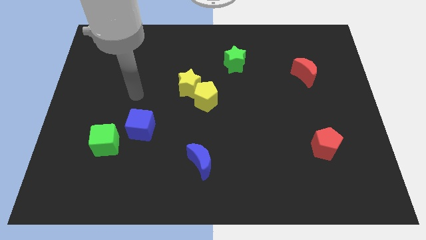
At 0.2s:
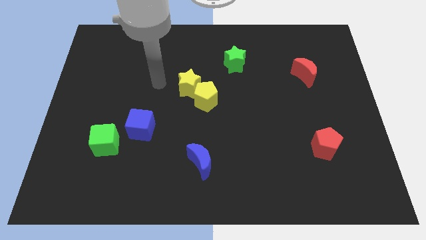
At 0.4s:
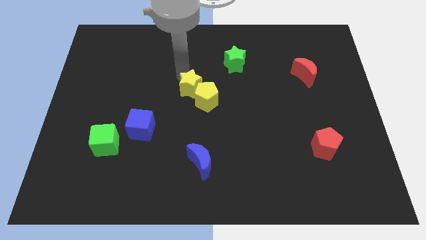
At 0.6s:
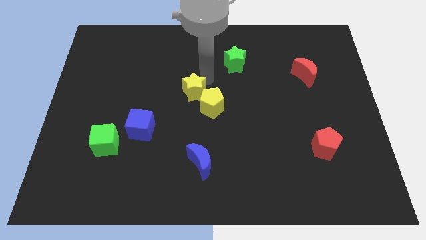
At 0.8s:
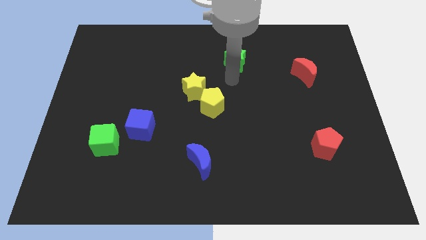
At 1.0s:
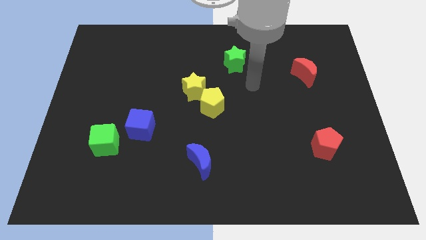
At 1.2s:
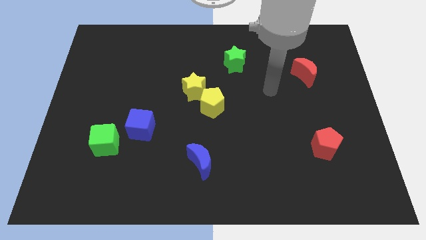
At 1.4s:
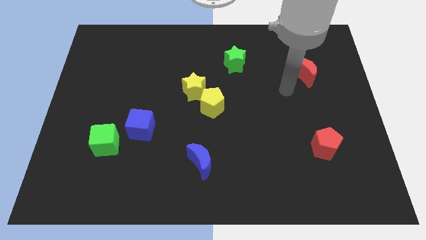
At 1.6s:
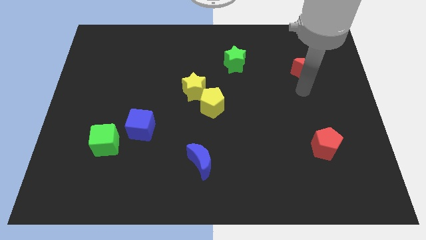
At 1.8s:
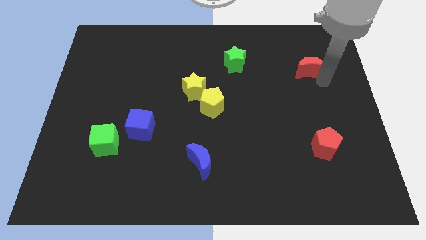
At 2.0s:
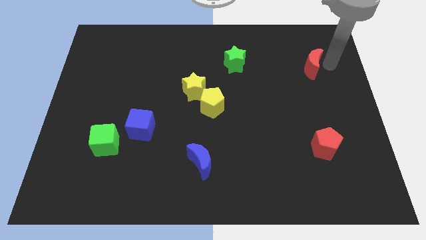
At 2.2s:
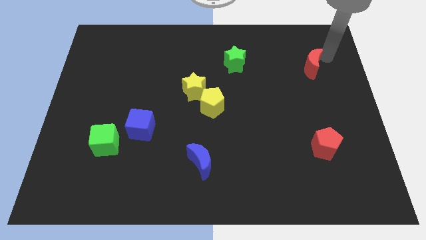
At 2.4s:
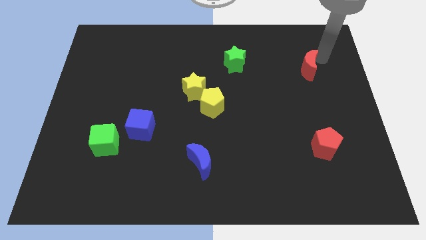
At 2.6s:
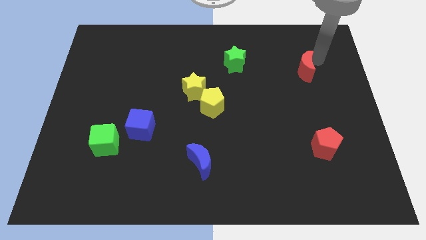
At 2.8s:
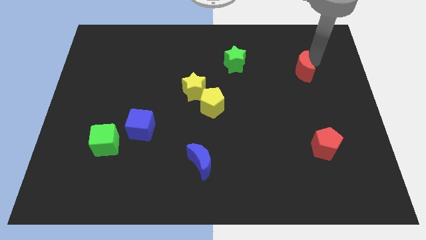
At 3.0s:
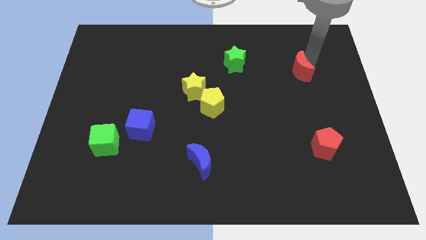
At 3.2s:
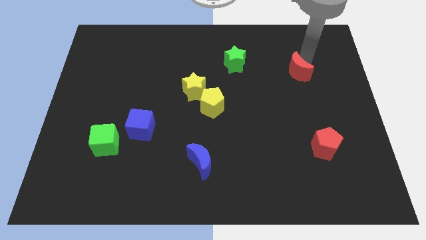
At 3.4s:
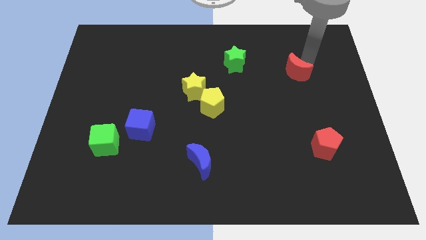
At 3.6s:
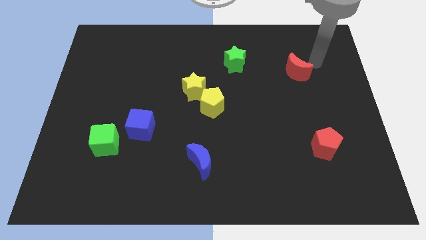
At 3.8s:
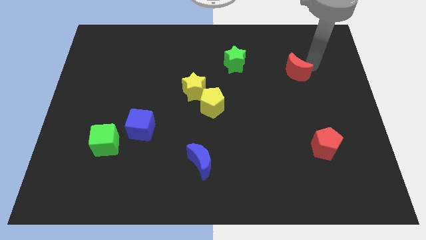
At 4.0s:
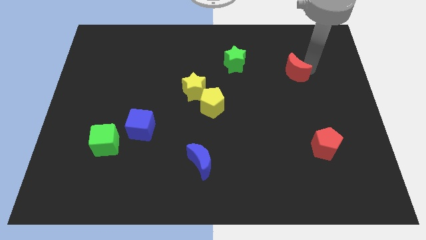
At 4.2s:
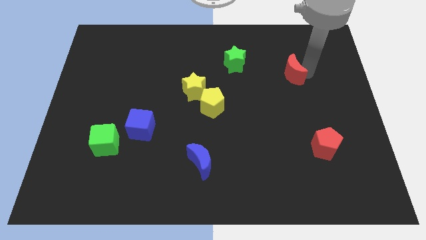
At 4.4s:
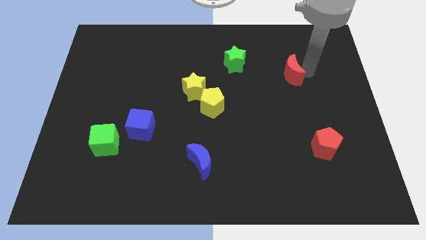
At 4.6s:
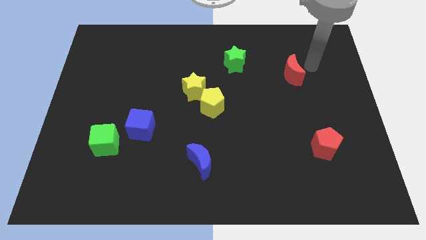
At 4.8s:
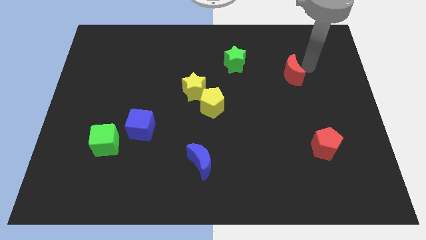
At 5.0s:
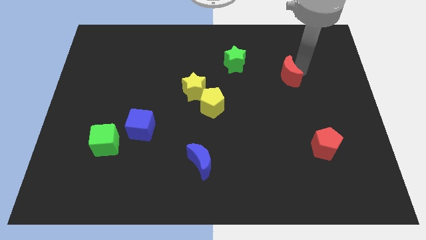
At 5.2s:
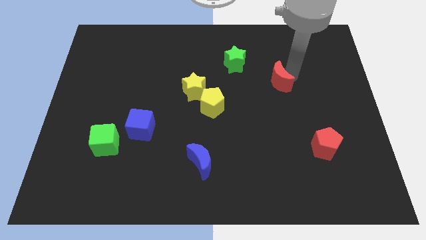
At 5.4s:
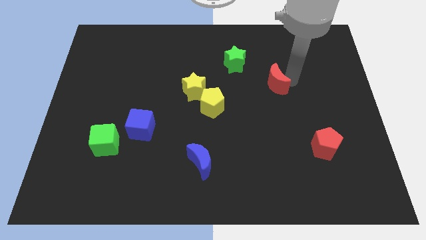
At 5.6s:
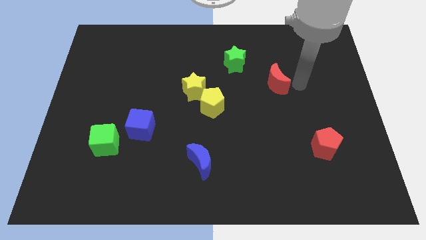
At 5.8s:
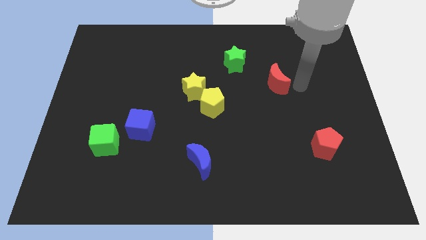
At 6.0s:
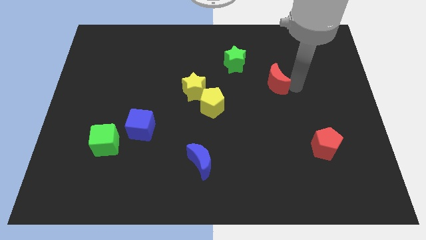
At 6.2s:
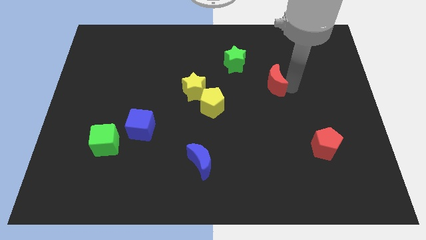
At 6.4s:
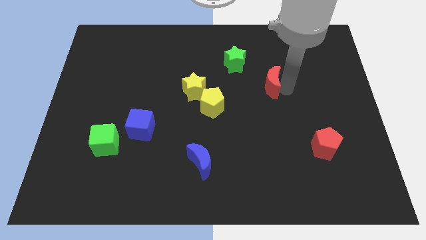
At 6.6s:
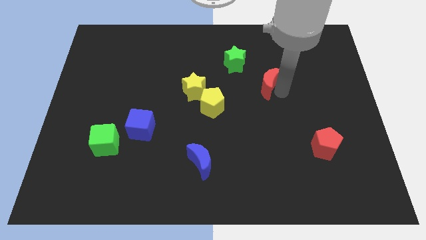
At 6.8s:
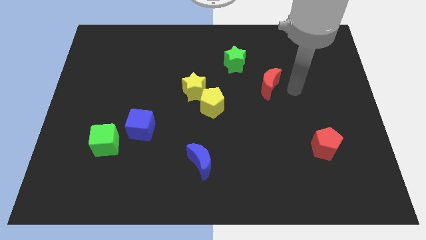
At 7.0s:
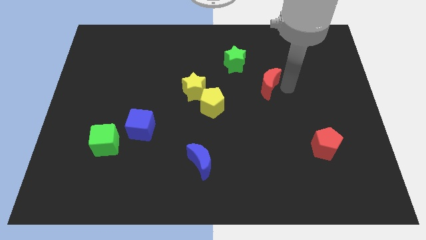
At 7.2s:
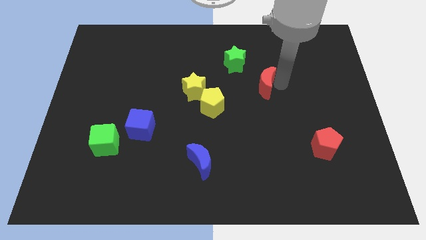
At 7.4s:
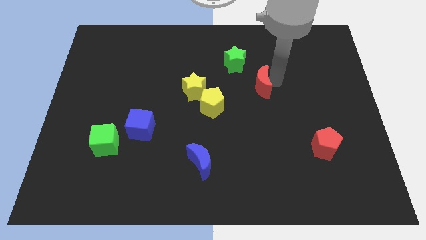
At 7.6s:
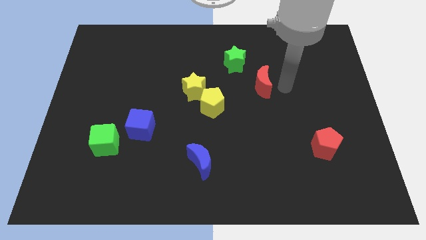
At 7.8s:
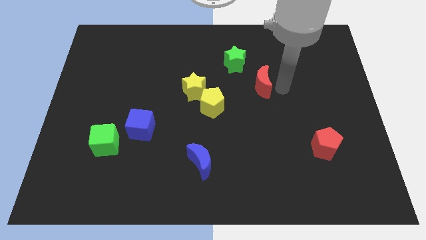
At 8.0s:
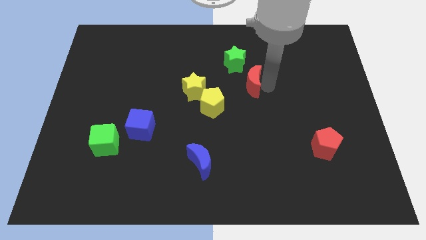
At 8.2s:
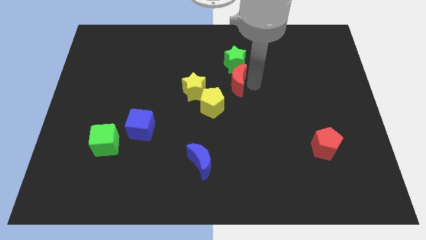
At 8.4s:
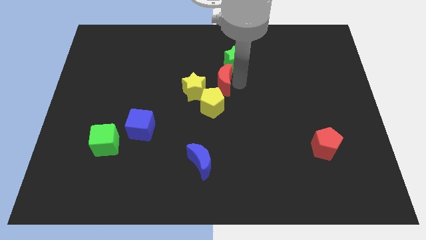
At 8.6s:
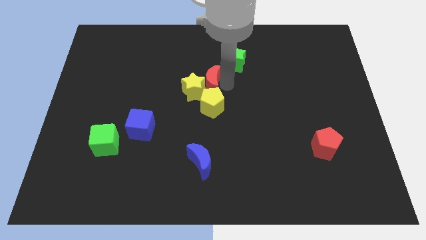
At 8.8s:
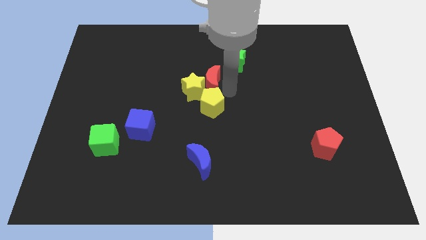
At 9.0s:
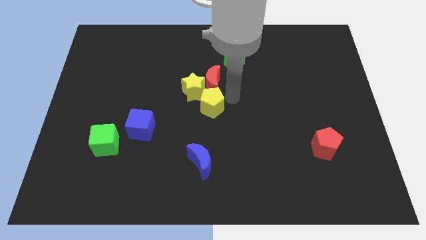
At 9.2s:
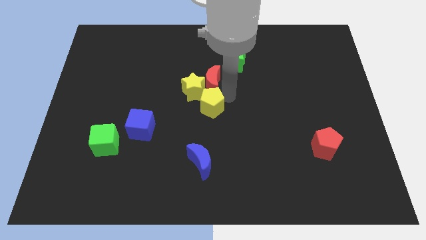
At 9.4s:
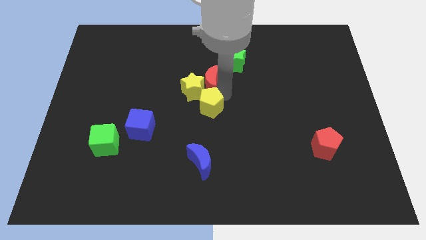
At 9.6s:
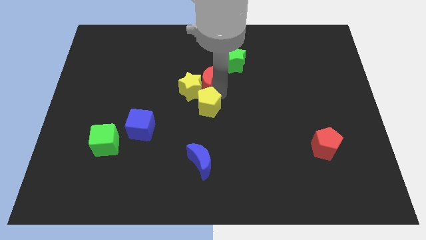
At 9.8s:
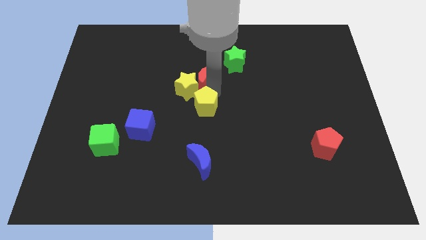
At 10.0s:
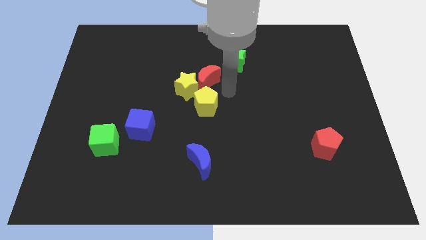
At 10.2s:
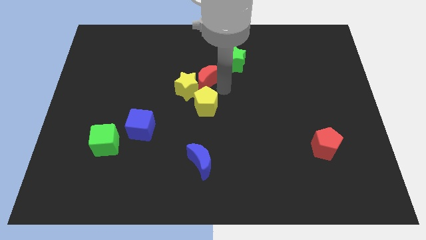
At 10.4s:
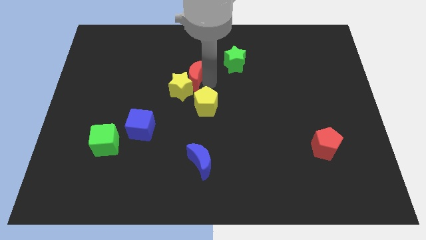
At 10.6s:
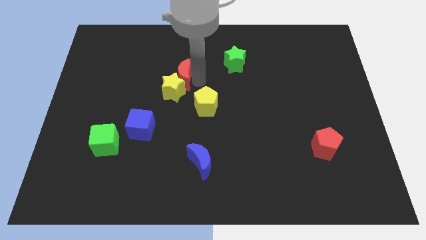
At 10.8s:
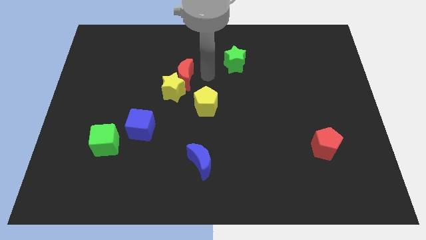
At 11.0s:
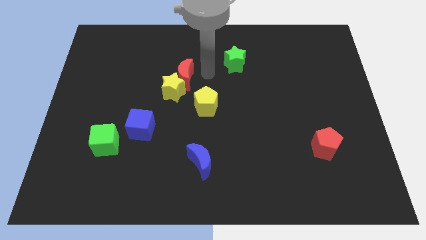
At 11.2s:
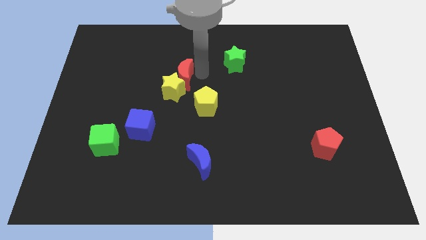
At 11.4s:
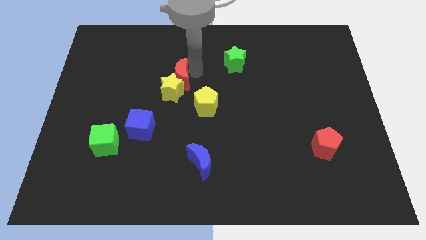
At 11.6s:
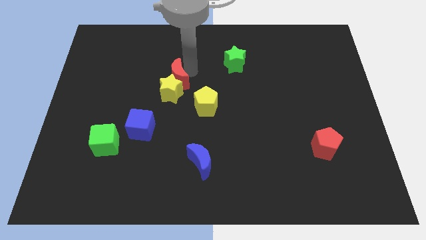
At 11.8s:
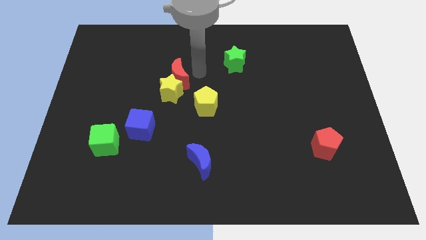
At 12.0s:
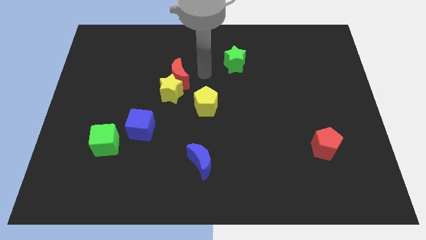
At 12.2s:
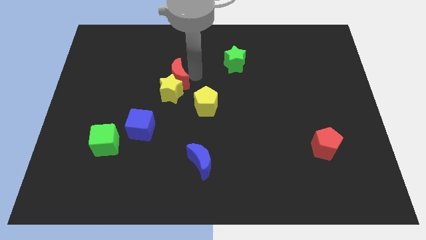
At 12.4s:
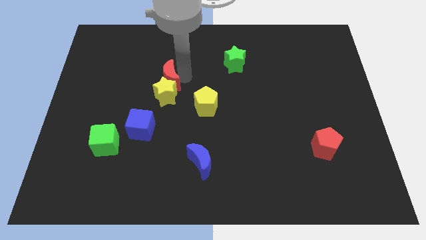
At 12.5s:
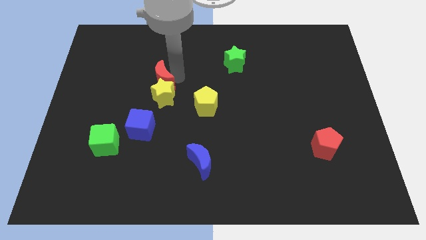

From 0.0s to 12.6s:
move the red moon to the top of the blue cube
